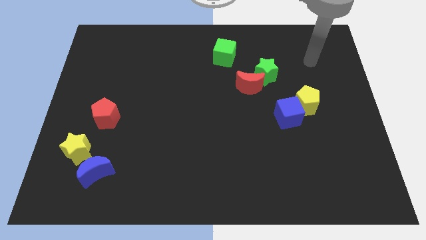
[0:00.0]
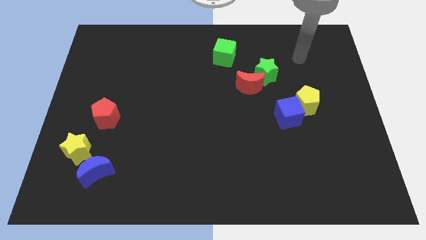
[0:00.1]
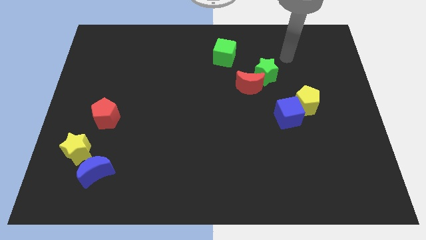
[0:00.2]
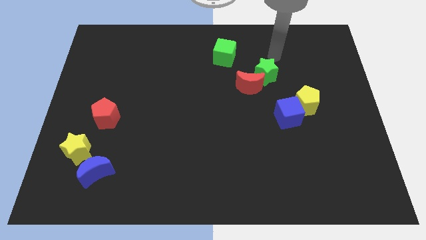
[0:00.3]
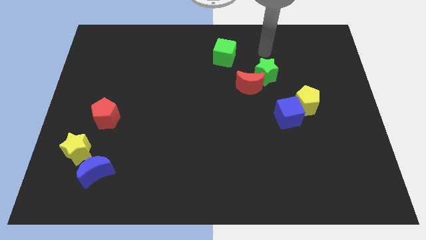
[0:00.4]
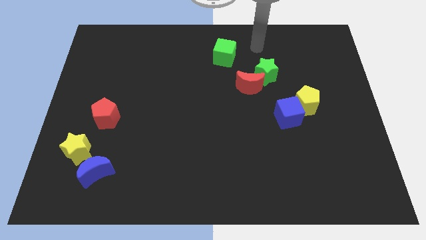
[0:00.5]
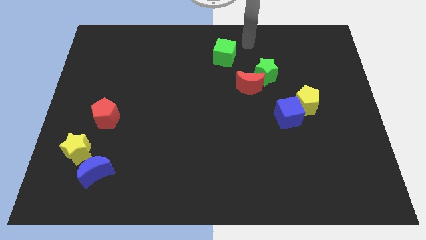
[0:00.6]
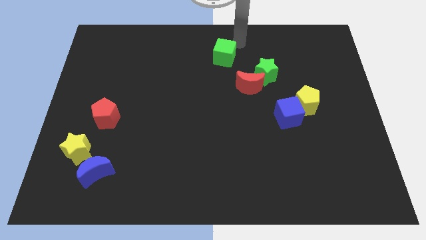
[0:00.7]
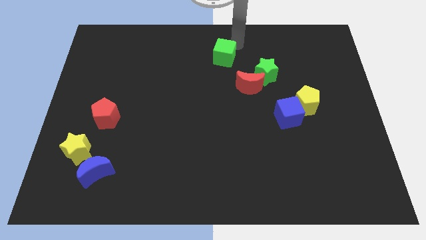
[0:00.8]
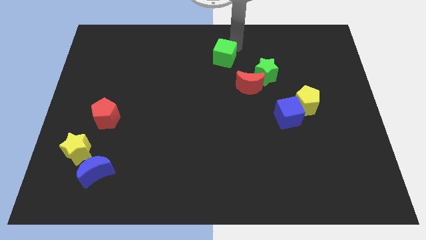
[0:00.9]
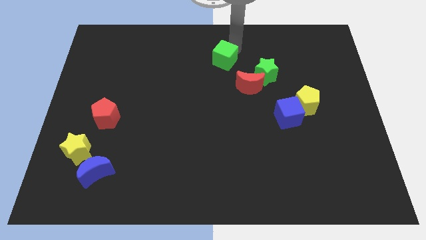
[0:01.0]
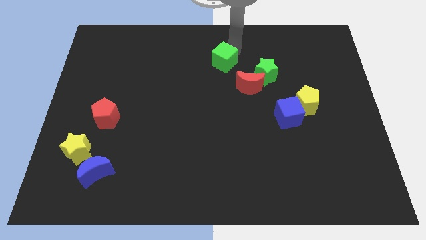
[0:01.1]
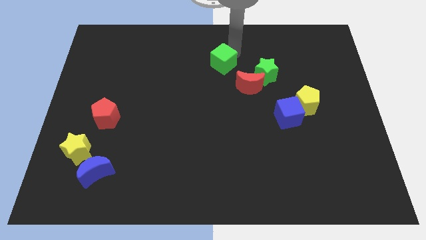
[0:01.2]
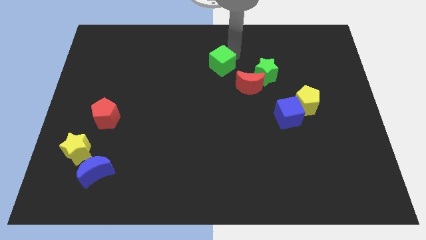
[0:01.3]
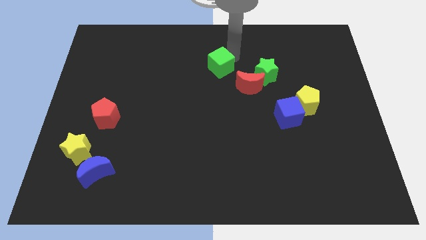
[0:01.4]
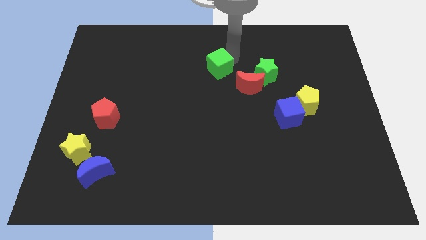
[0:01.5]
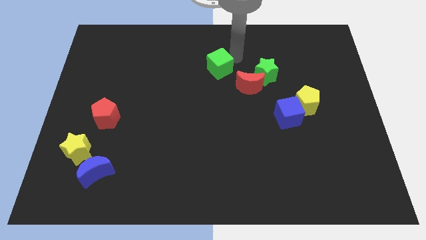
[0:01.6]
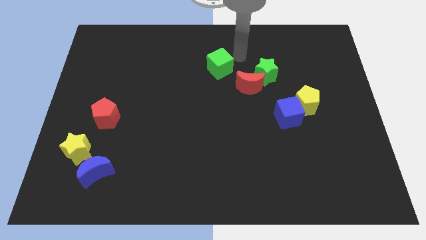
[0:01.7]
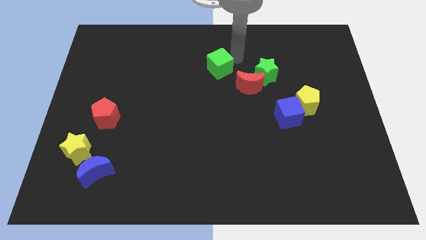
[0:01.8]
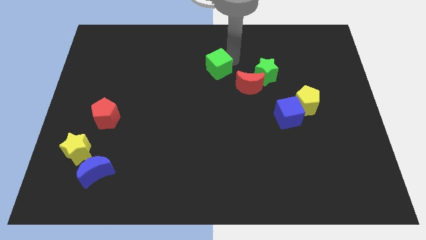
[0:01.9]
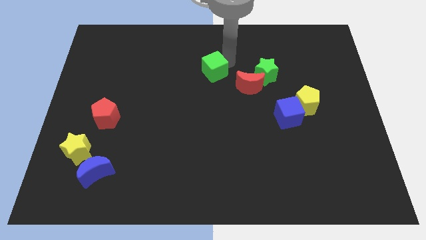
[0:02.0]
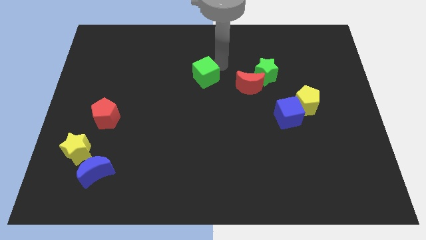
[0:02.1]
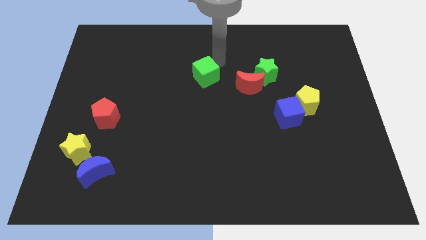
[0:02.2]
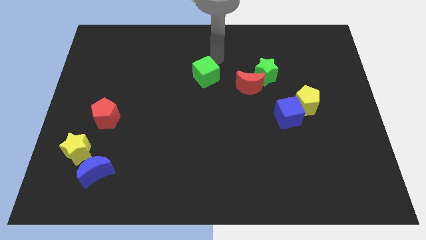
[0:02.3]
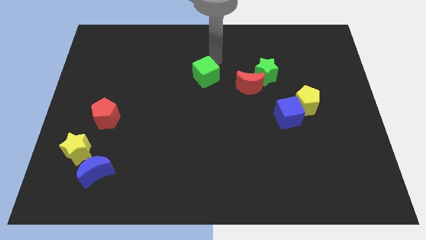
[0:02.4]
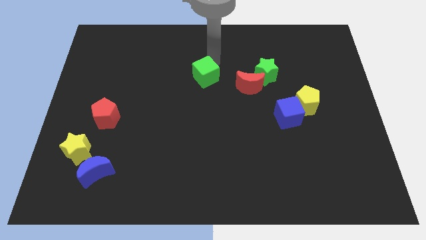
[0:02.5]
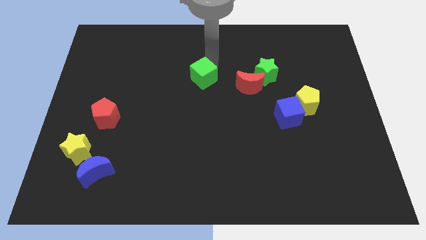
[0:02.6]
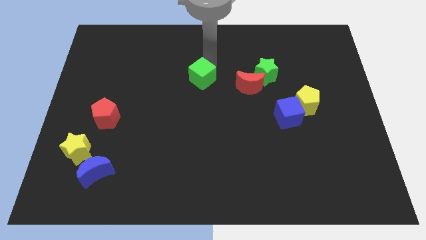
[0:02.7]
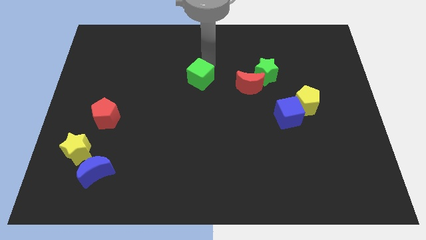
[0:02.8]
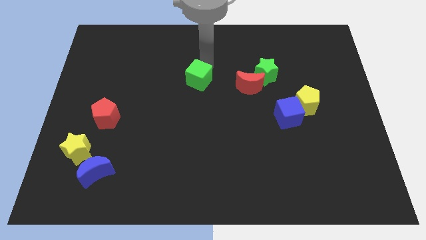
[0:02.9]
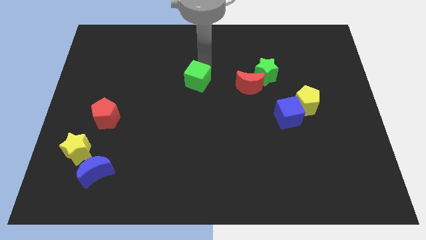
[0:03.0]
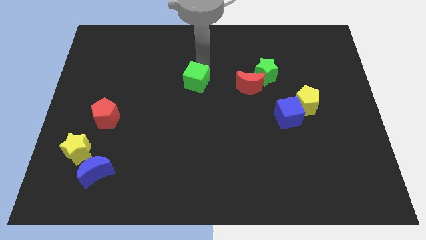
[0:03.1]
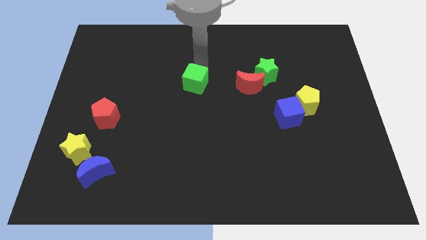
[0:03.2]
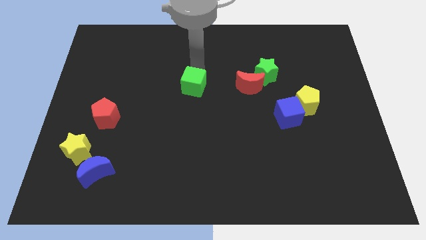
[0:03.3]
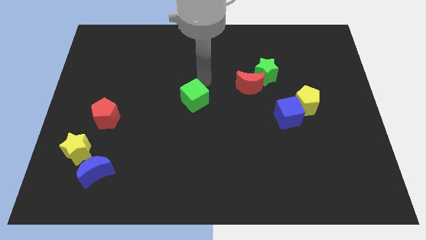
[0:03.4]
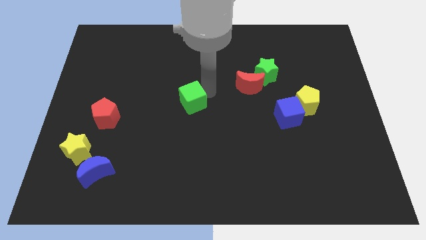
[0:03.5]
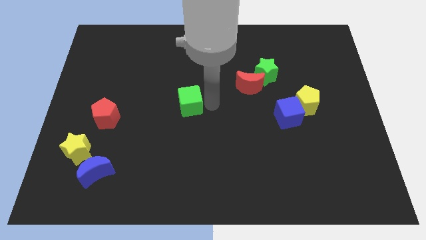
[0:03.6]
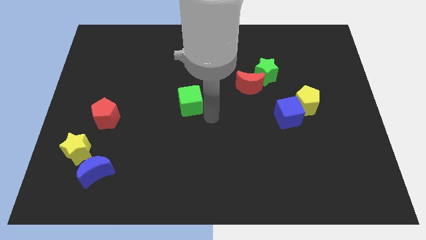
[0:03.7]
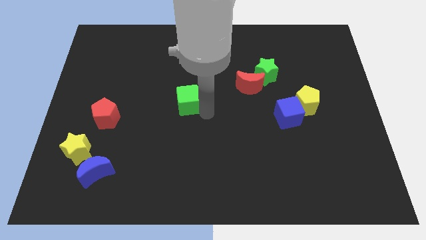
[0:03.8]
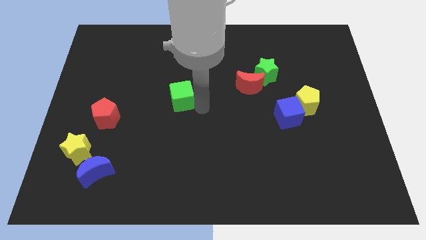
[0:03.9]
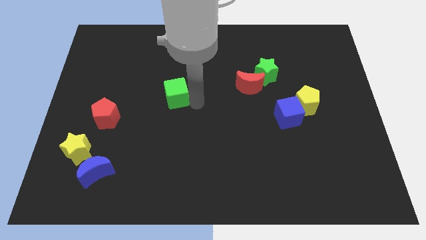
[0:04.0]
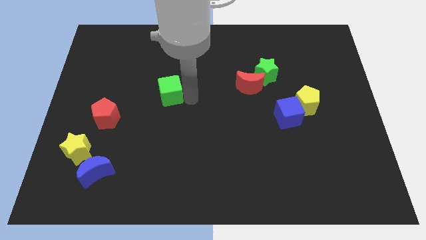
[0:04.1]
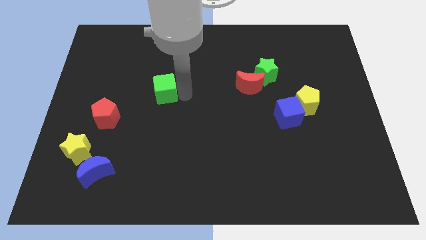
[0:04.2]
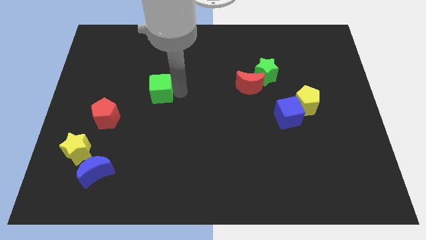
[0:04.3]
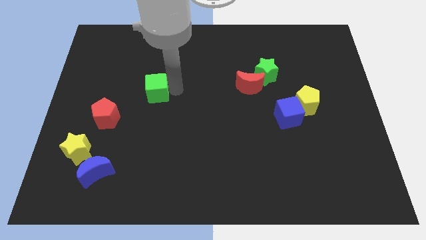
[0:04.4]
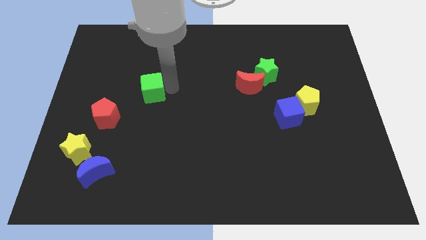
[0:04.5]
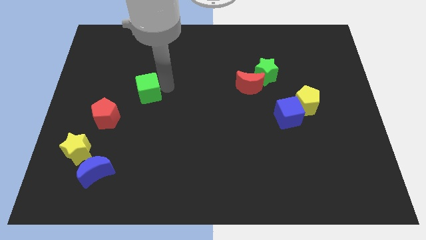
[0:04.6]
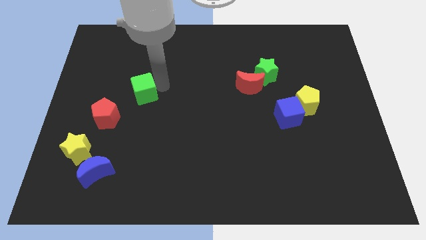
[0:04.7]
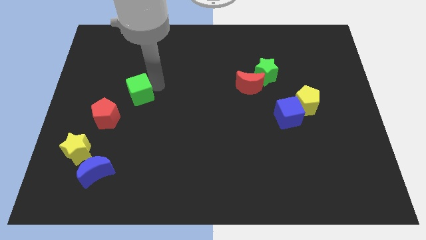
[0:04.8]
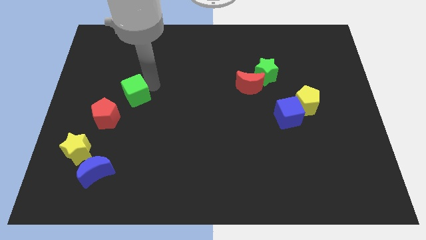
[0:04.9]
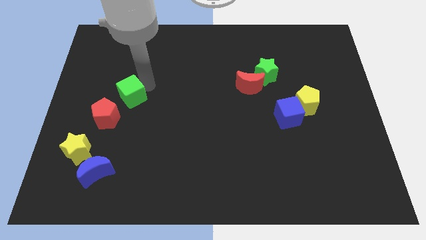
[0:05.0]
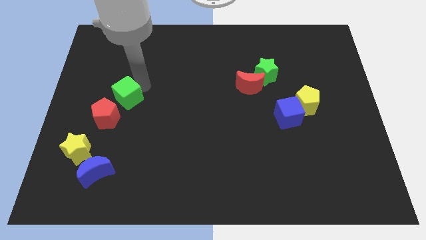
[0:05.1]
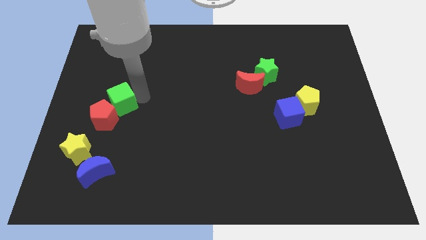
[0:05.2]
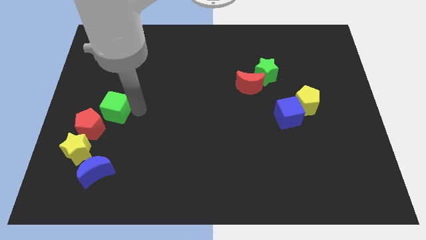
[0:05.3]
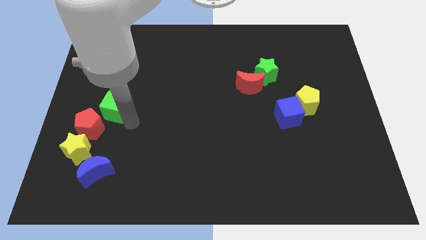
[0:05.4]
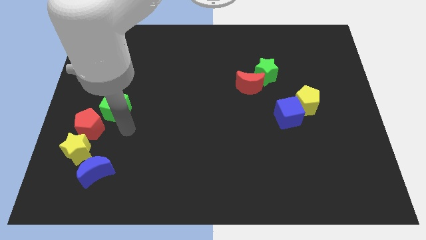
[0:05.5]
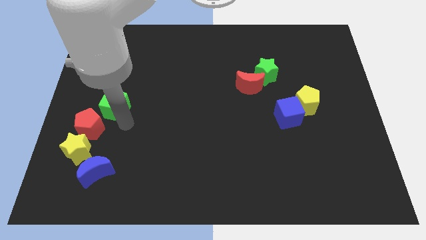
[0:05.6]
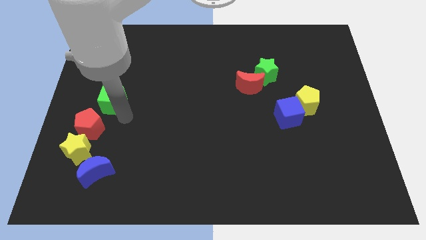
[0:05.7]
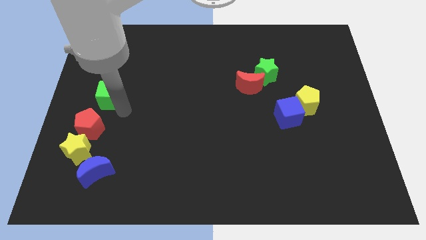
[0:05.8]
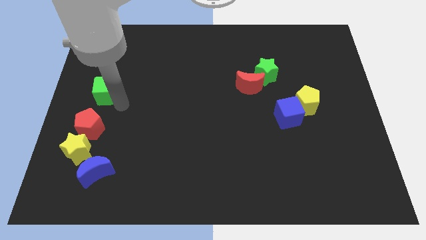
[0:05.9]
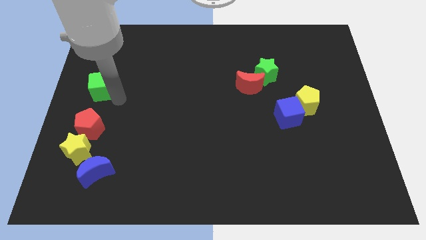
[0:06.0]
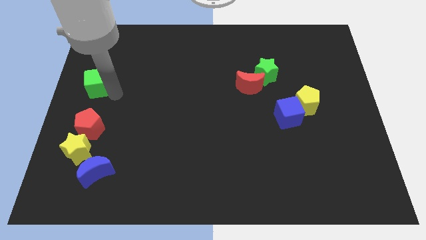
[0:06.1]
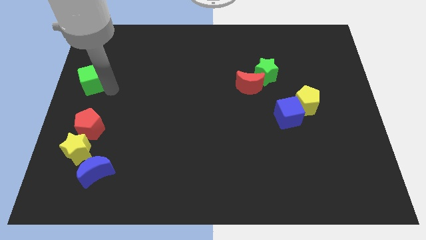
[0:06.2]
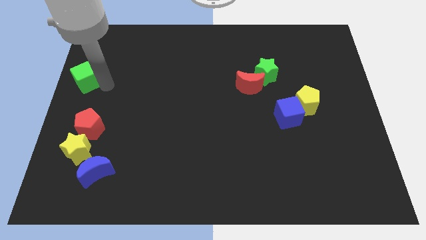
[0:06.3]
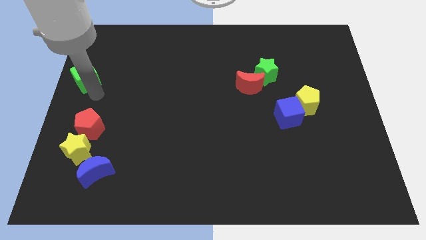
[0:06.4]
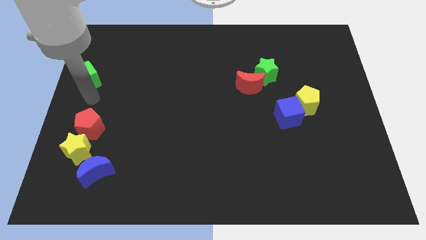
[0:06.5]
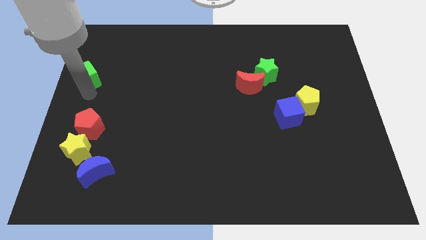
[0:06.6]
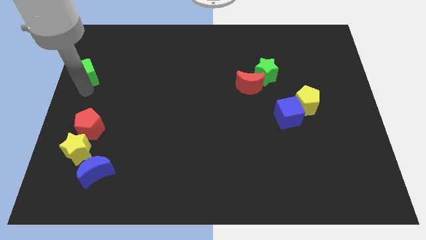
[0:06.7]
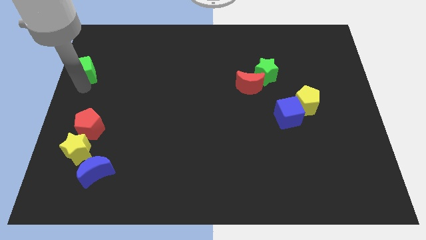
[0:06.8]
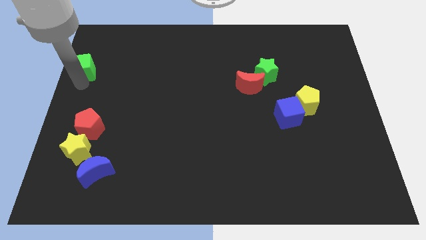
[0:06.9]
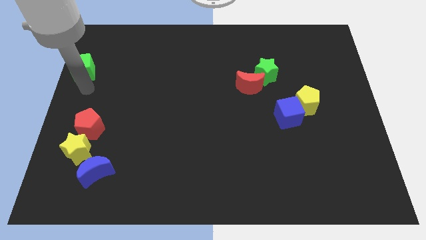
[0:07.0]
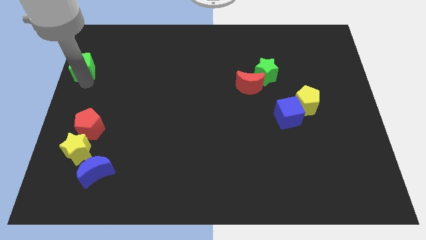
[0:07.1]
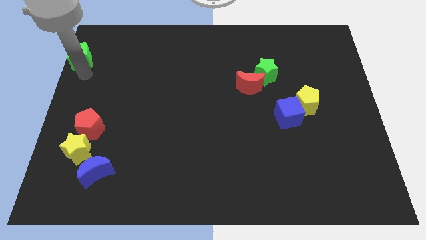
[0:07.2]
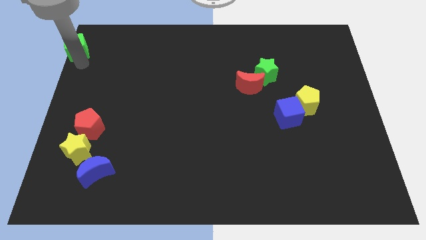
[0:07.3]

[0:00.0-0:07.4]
push the green cube to the top left
